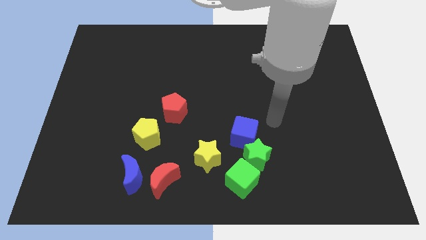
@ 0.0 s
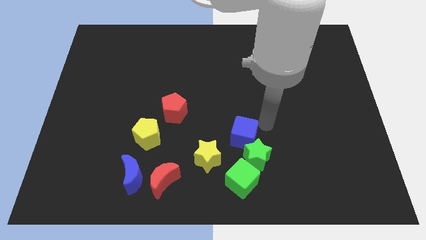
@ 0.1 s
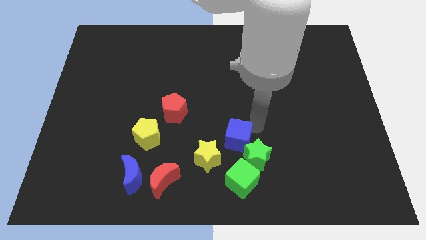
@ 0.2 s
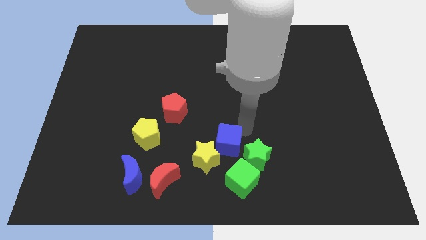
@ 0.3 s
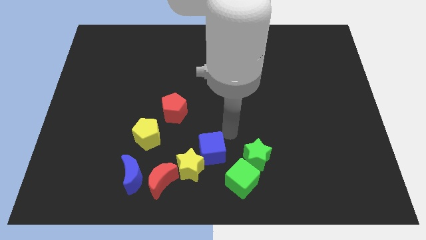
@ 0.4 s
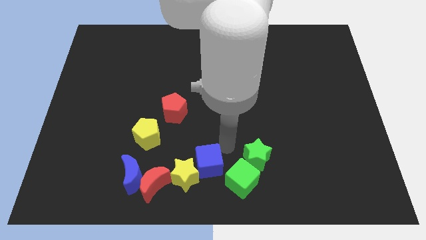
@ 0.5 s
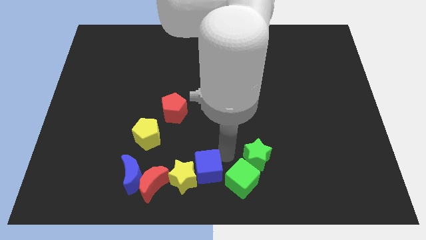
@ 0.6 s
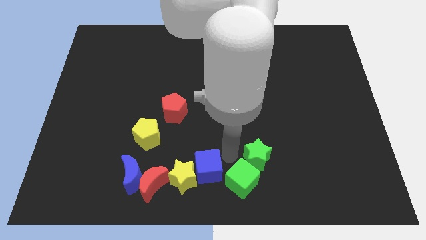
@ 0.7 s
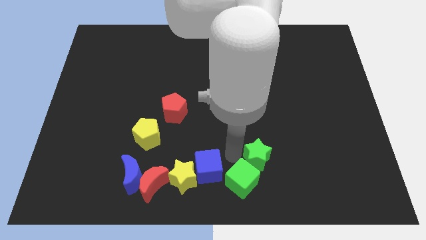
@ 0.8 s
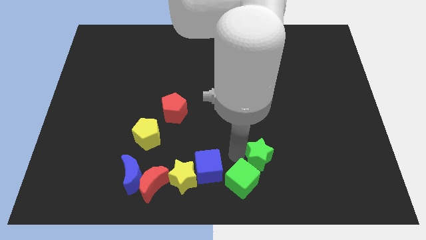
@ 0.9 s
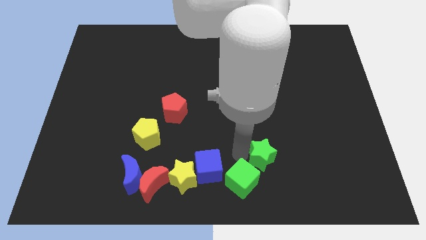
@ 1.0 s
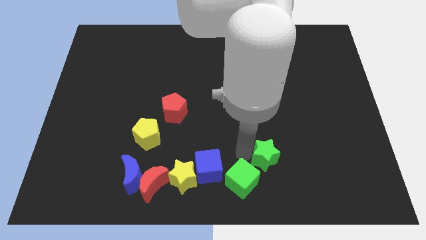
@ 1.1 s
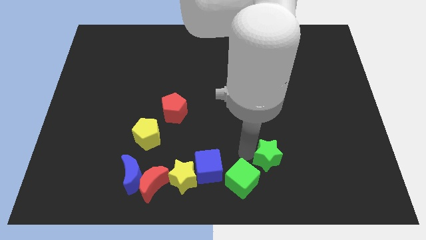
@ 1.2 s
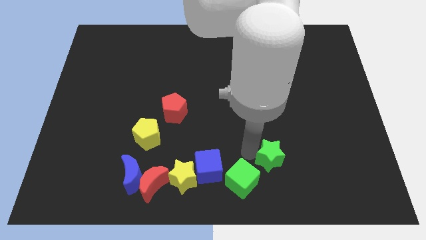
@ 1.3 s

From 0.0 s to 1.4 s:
pull the green star apart from the green cube and blue cube

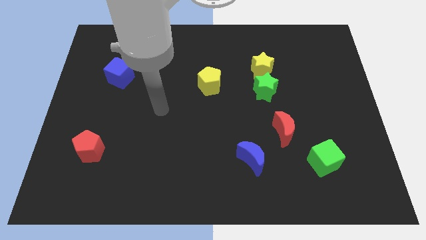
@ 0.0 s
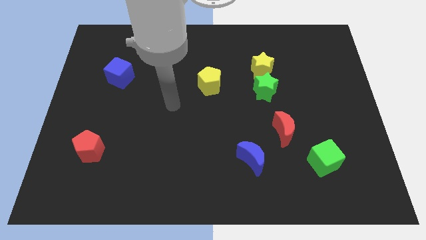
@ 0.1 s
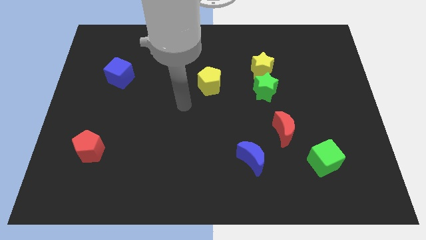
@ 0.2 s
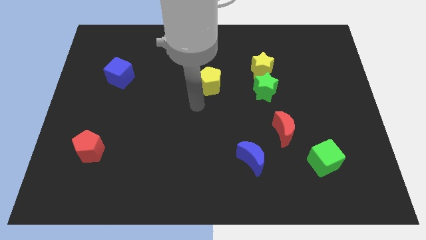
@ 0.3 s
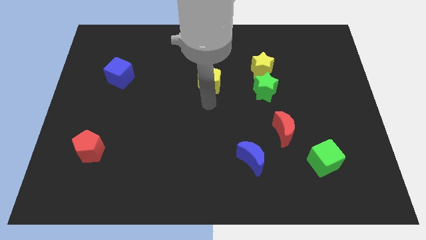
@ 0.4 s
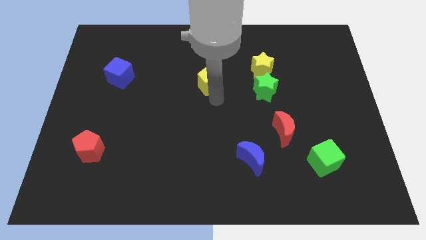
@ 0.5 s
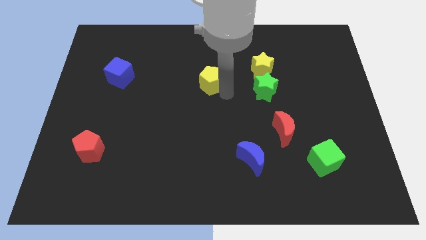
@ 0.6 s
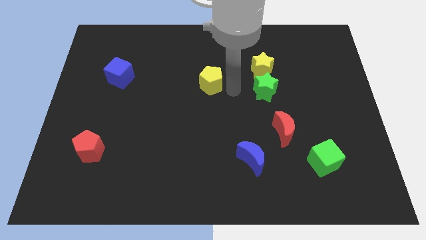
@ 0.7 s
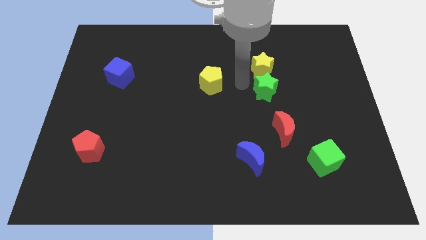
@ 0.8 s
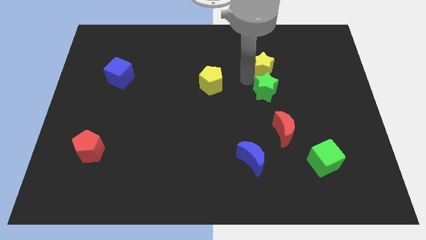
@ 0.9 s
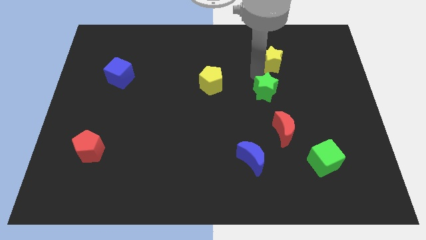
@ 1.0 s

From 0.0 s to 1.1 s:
move the green star away from the yellow star

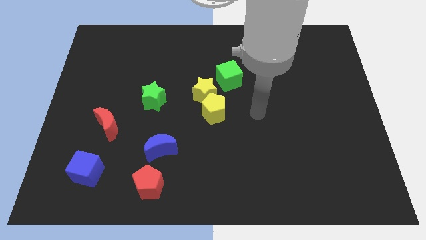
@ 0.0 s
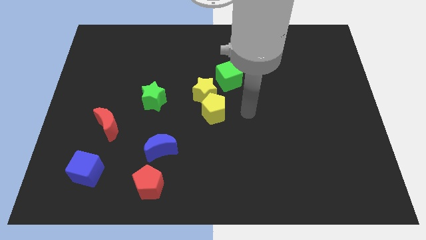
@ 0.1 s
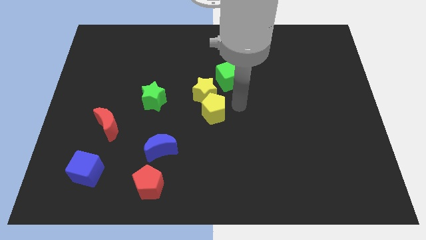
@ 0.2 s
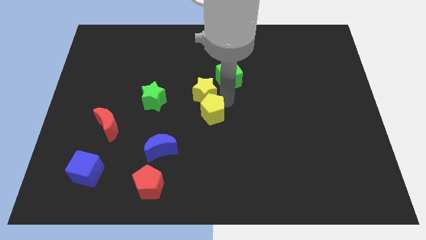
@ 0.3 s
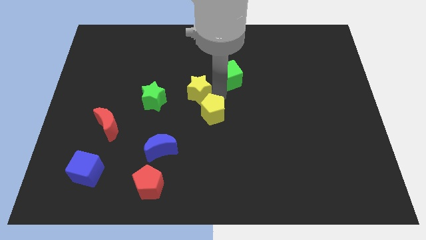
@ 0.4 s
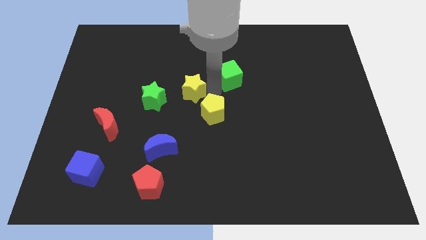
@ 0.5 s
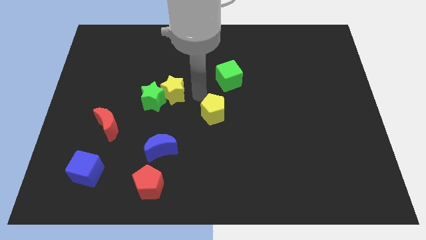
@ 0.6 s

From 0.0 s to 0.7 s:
pull the yellow pentagon apart from the yellow star

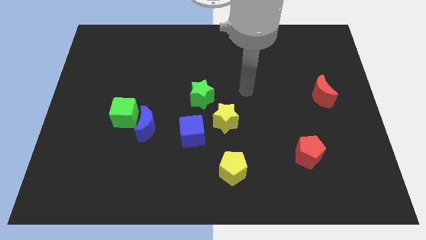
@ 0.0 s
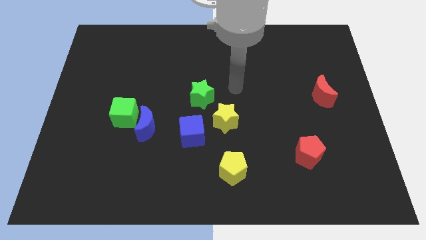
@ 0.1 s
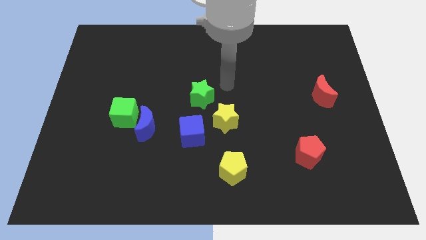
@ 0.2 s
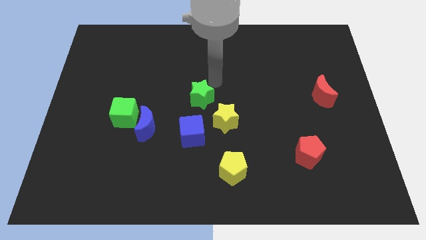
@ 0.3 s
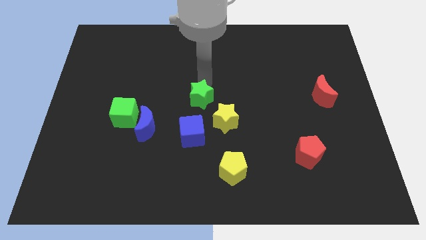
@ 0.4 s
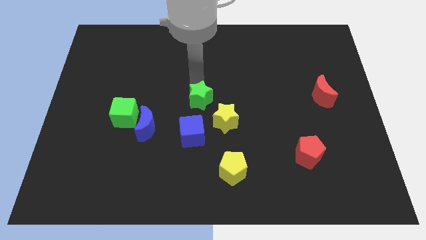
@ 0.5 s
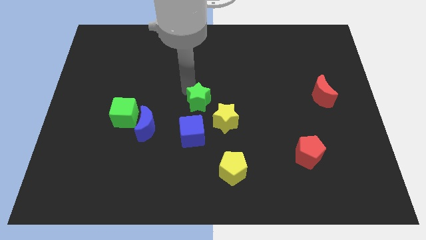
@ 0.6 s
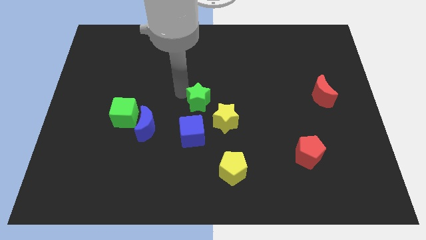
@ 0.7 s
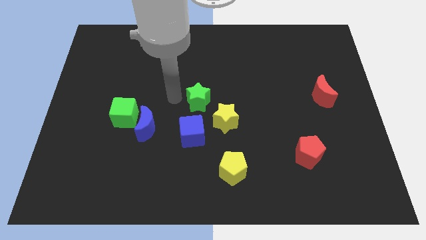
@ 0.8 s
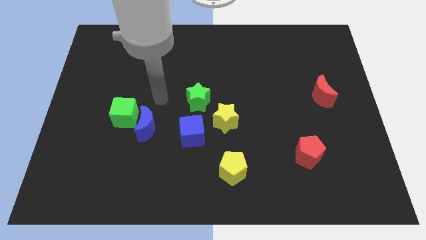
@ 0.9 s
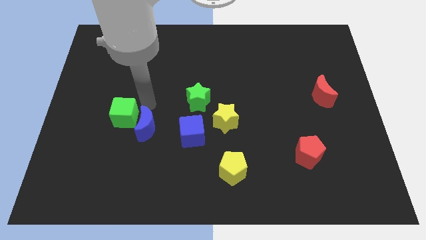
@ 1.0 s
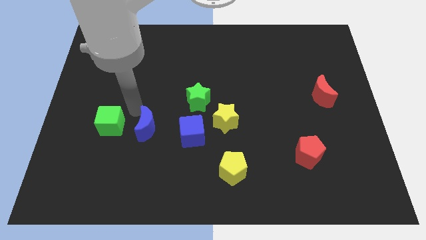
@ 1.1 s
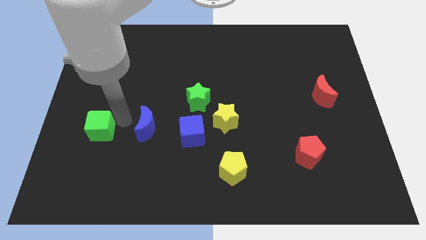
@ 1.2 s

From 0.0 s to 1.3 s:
pull the blue moon apart from the green cube

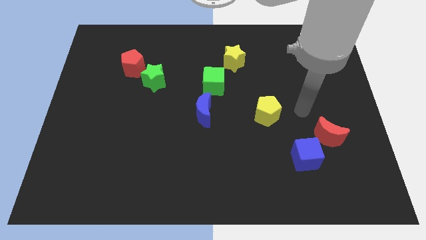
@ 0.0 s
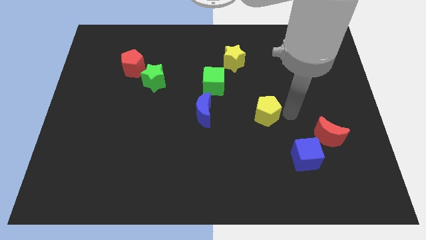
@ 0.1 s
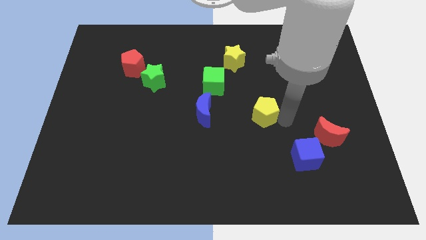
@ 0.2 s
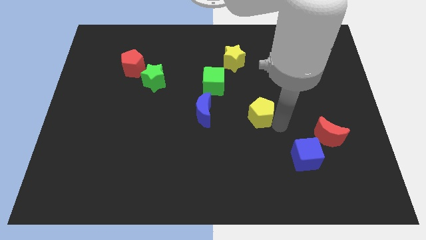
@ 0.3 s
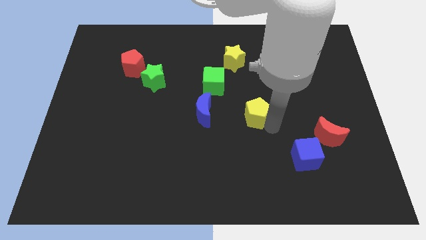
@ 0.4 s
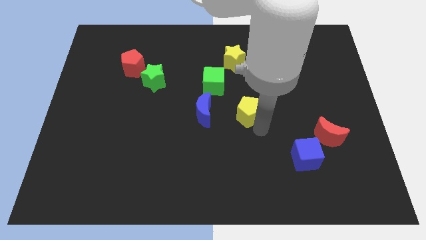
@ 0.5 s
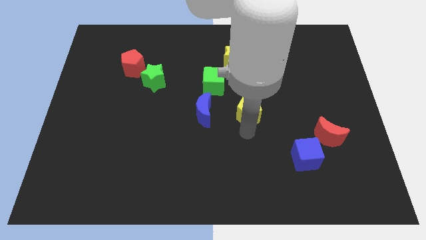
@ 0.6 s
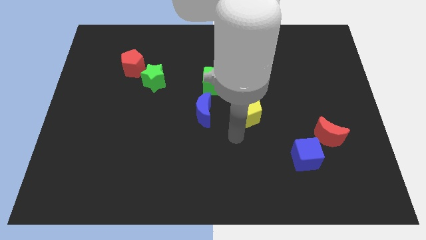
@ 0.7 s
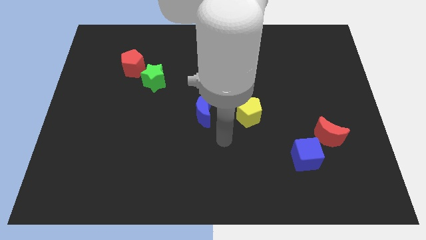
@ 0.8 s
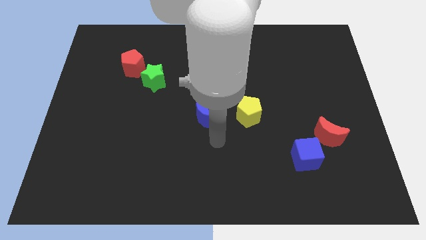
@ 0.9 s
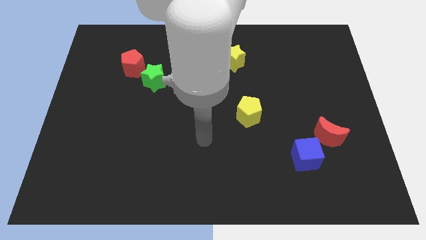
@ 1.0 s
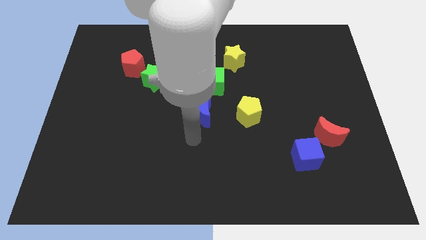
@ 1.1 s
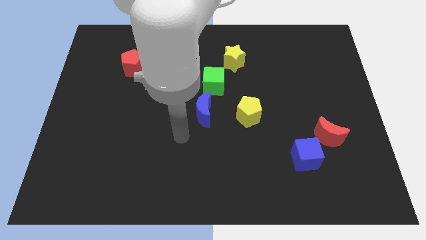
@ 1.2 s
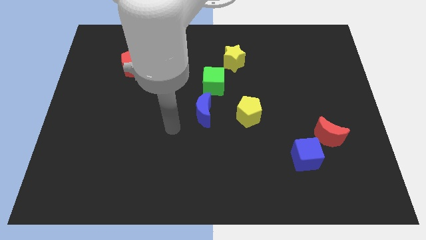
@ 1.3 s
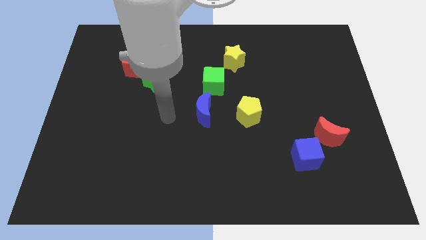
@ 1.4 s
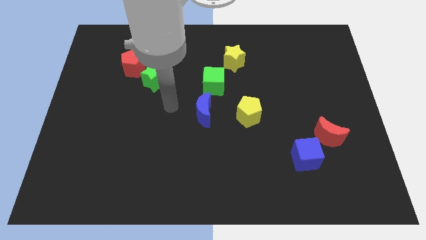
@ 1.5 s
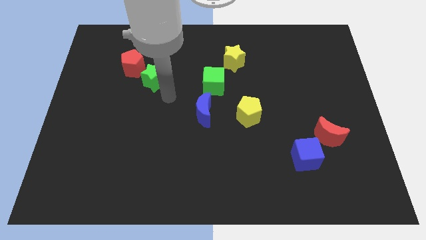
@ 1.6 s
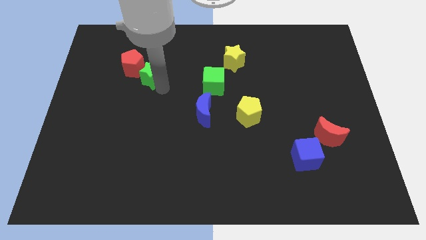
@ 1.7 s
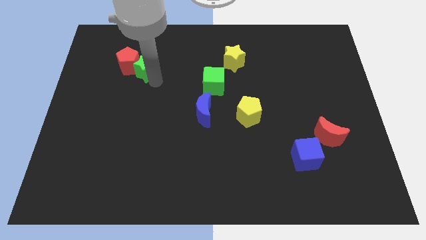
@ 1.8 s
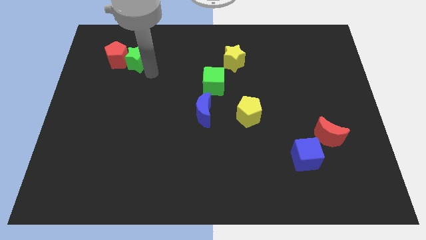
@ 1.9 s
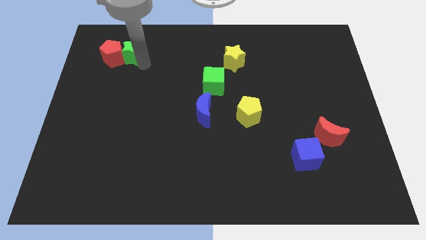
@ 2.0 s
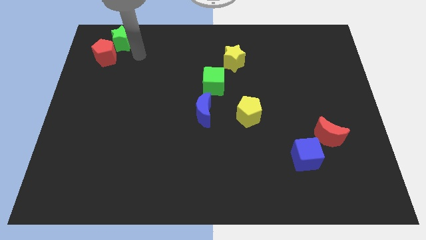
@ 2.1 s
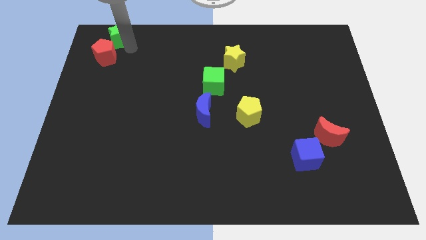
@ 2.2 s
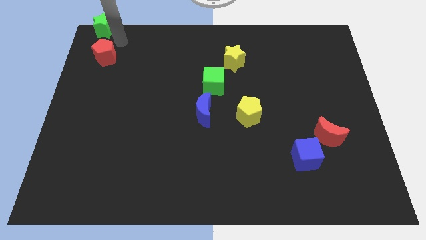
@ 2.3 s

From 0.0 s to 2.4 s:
pull the red pentagon apart from the green star

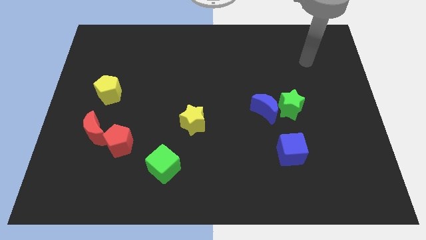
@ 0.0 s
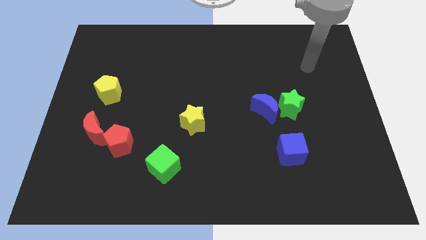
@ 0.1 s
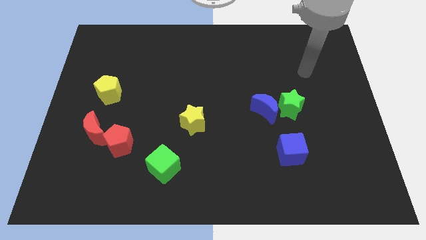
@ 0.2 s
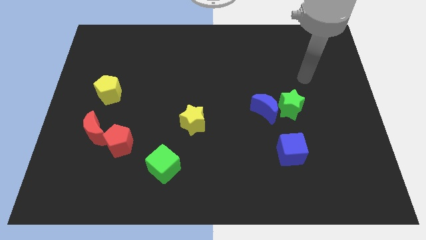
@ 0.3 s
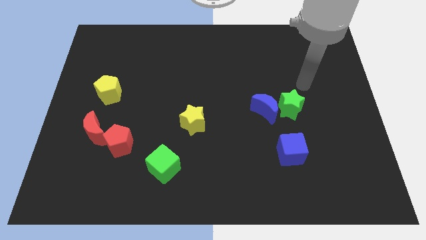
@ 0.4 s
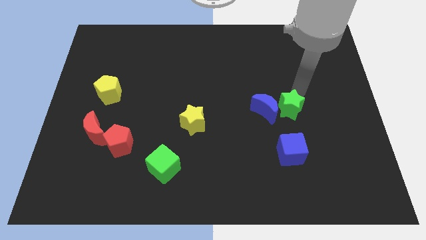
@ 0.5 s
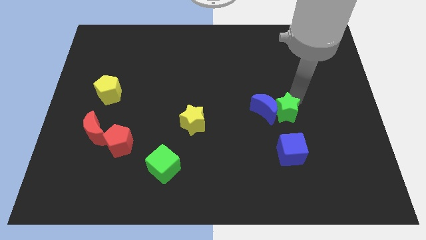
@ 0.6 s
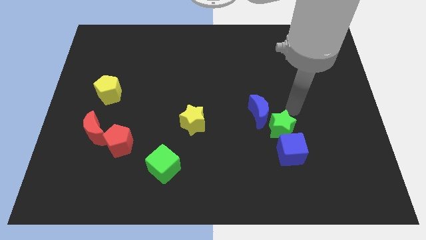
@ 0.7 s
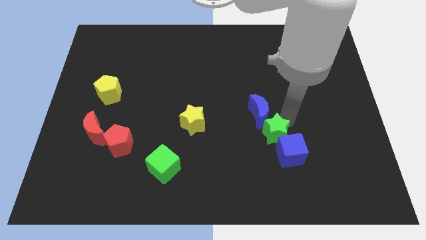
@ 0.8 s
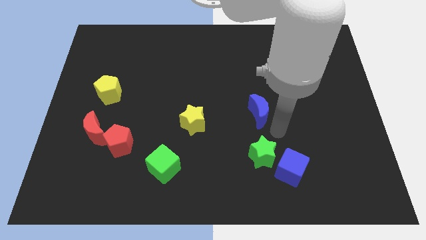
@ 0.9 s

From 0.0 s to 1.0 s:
move the blue moon away from the green star

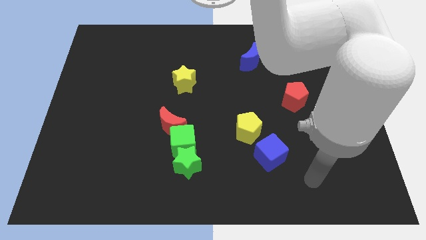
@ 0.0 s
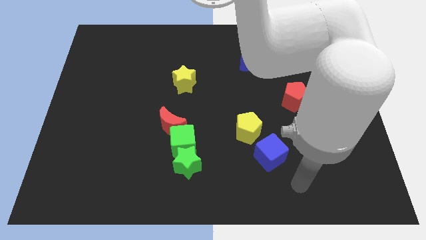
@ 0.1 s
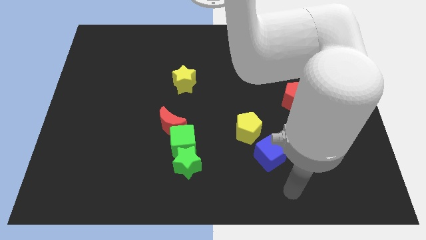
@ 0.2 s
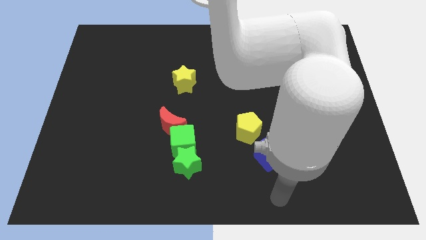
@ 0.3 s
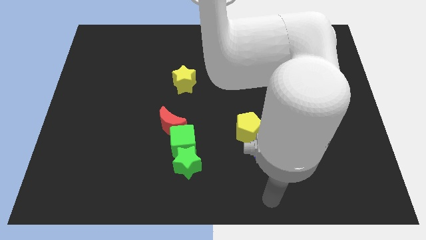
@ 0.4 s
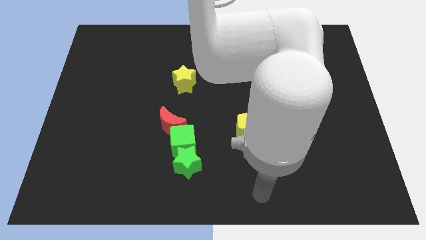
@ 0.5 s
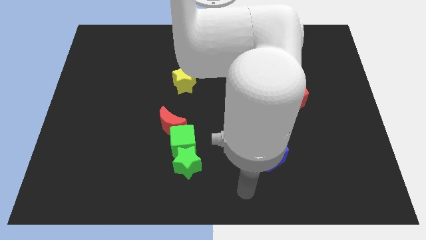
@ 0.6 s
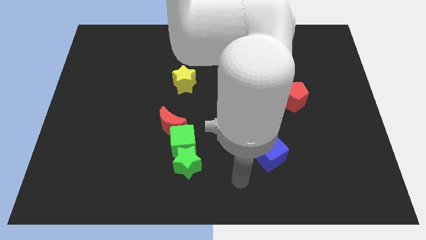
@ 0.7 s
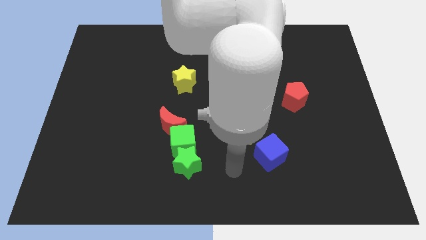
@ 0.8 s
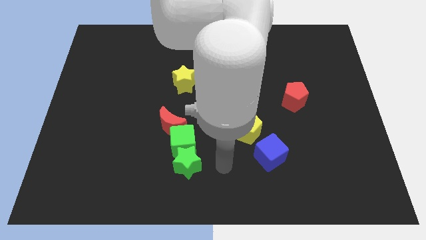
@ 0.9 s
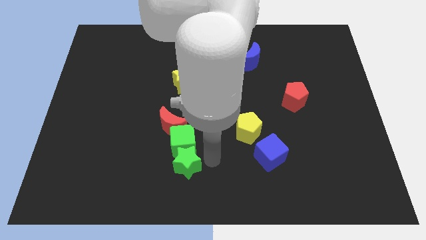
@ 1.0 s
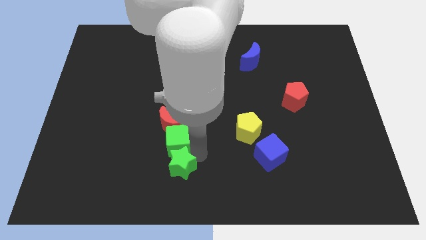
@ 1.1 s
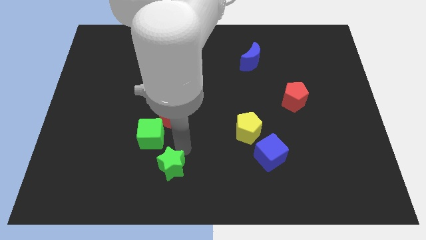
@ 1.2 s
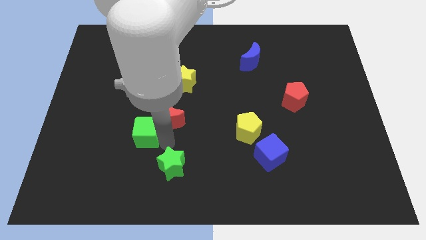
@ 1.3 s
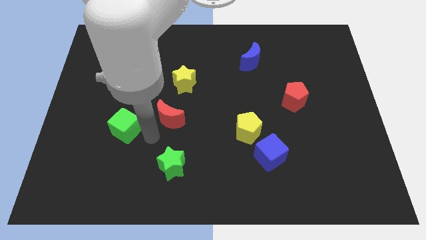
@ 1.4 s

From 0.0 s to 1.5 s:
separate the red moon from the green cube

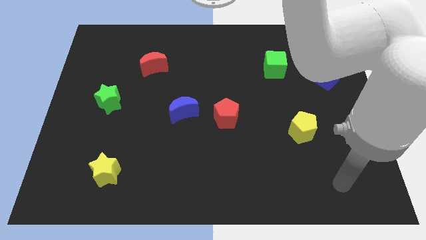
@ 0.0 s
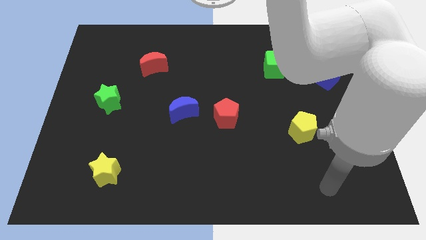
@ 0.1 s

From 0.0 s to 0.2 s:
move the red pentagon away from the blue moon
